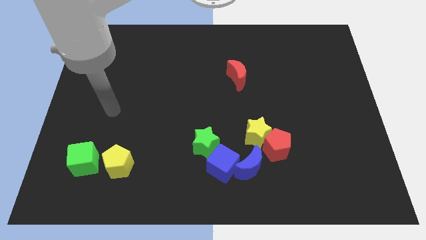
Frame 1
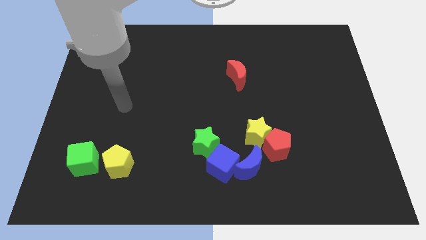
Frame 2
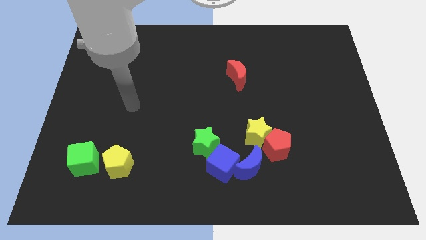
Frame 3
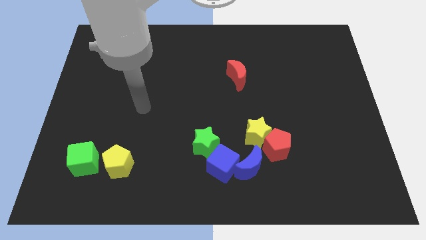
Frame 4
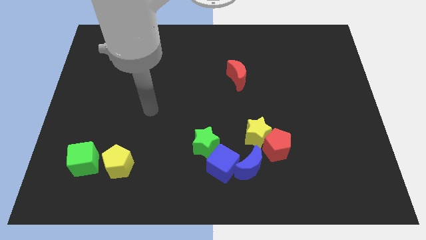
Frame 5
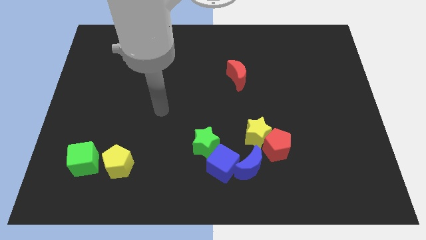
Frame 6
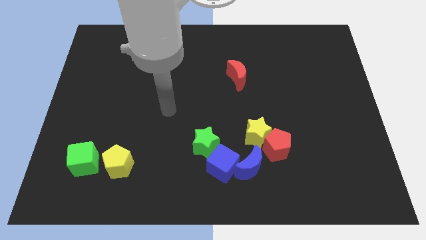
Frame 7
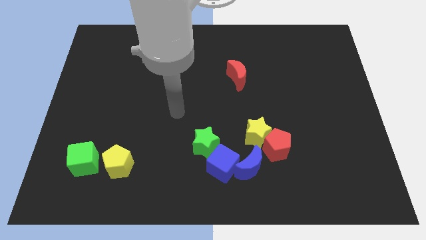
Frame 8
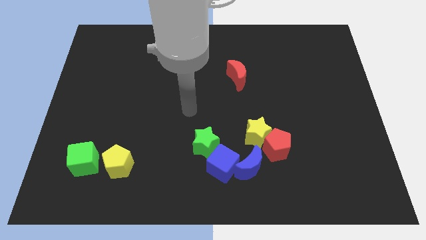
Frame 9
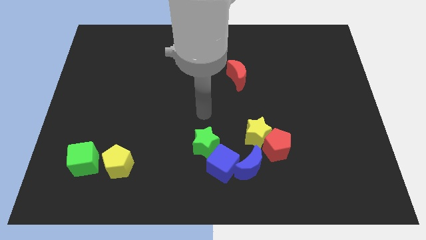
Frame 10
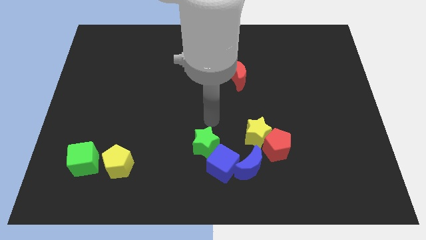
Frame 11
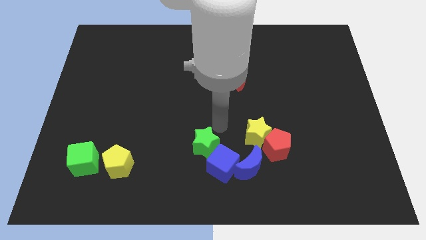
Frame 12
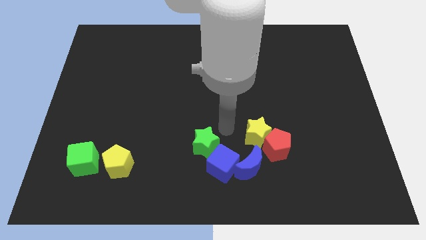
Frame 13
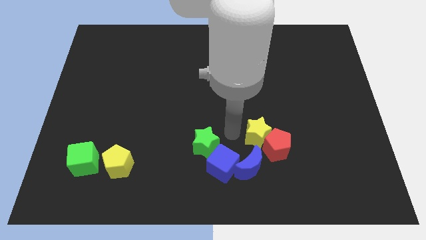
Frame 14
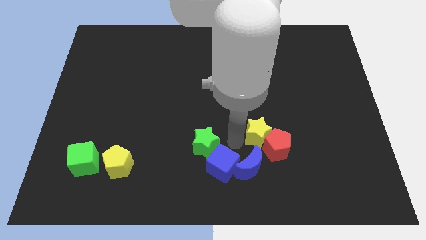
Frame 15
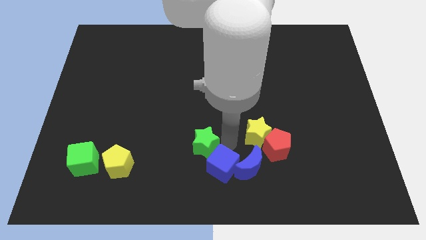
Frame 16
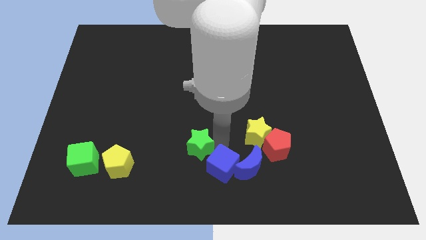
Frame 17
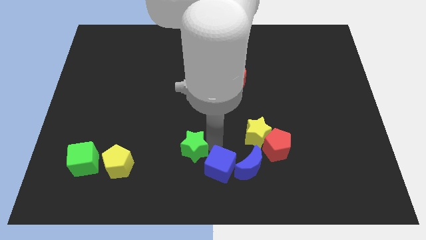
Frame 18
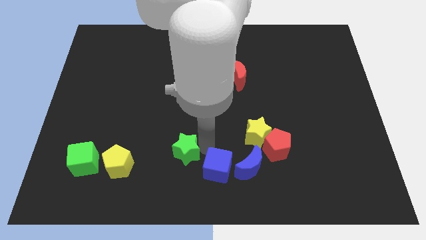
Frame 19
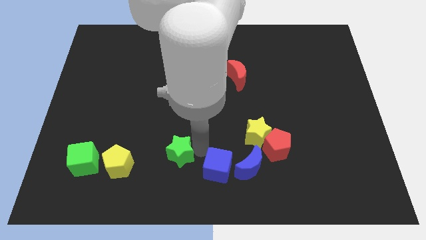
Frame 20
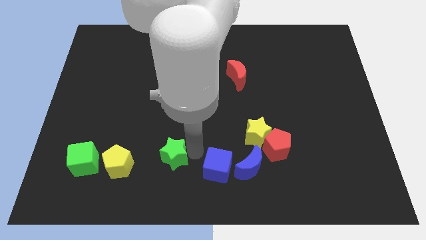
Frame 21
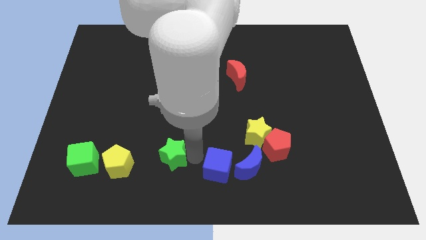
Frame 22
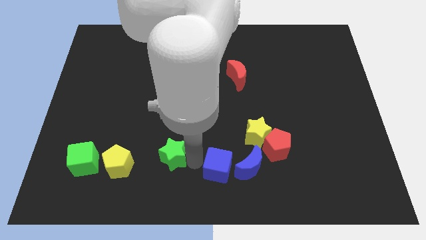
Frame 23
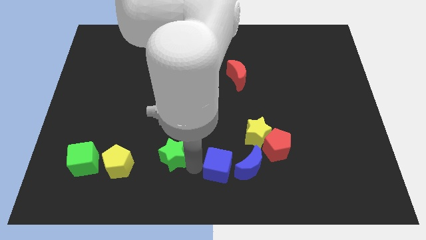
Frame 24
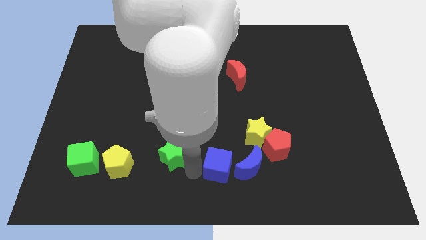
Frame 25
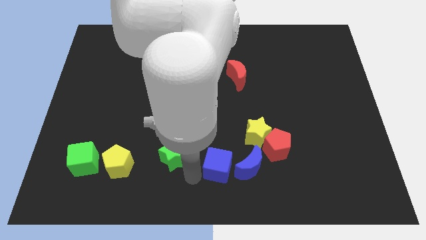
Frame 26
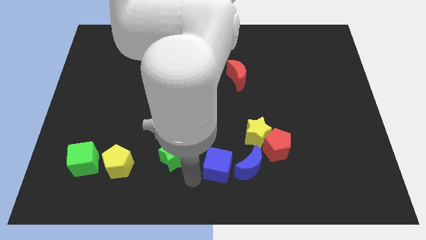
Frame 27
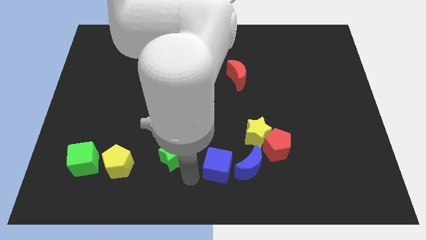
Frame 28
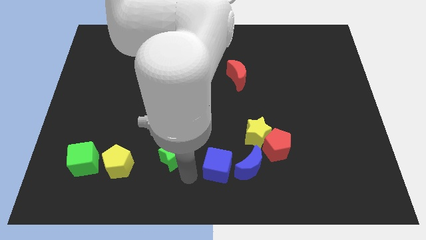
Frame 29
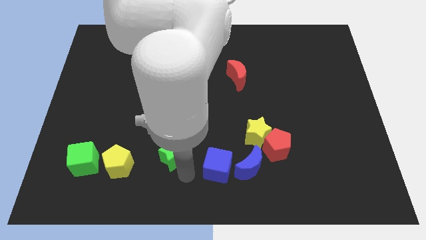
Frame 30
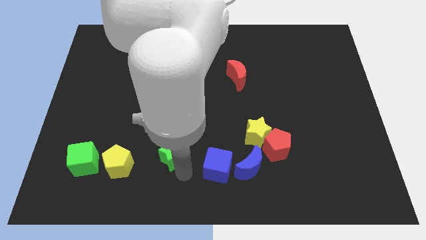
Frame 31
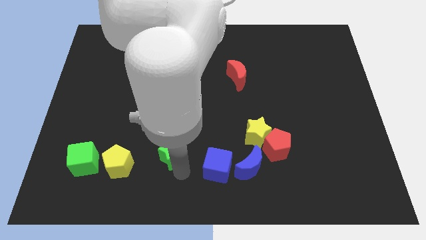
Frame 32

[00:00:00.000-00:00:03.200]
slightly push the green star to the left

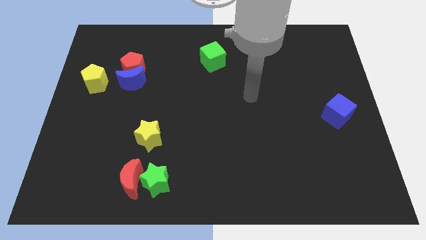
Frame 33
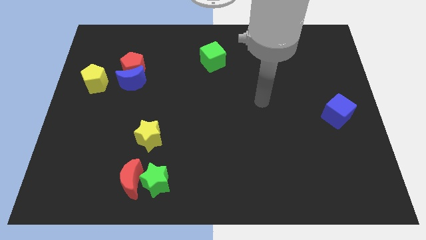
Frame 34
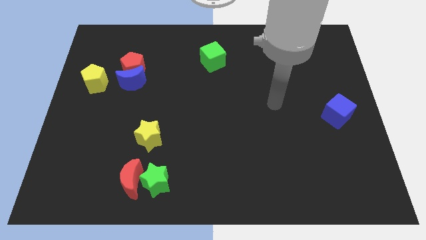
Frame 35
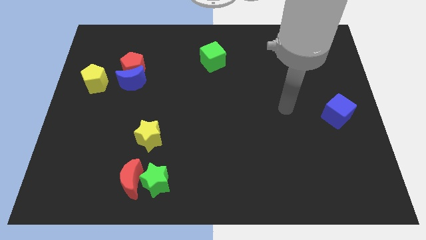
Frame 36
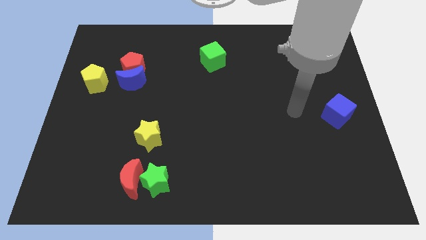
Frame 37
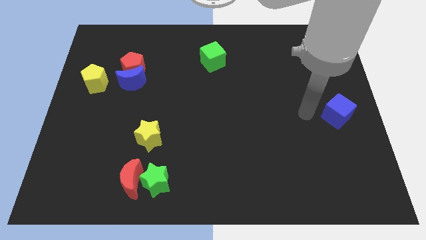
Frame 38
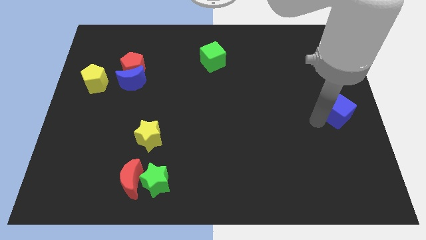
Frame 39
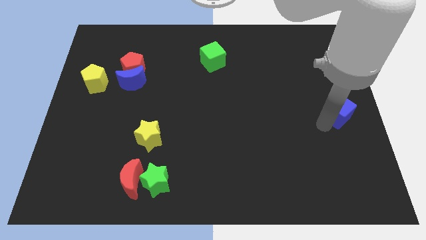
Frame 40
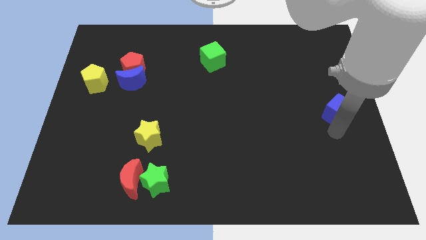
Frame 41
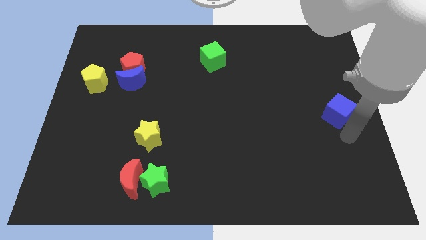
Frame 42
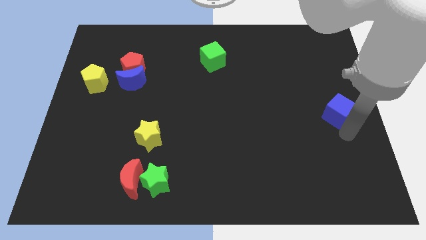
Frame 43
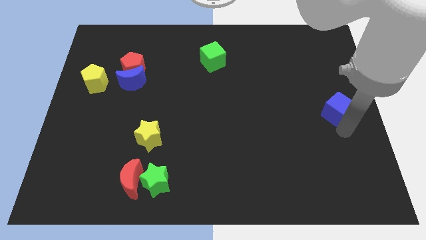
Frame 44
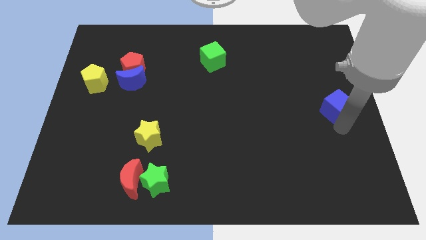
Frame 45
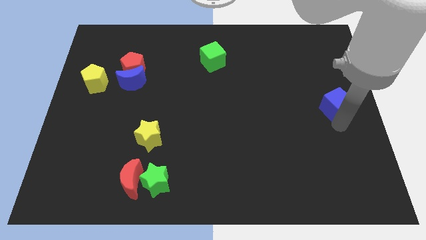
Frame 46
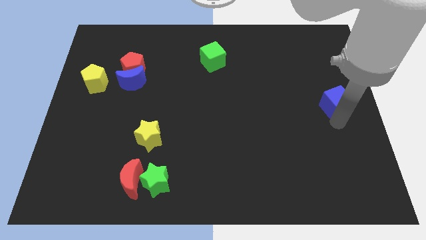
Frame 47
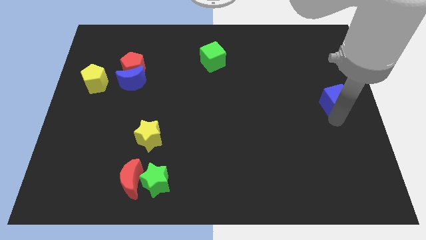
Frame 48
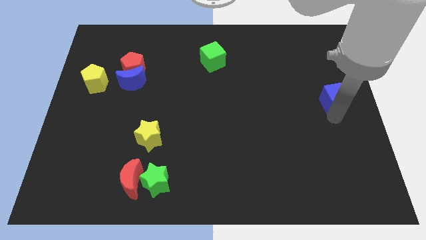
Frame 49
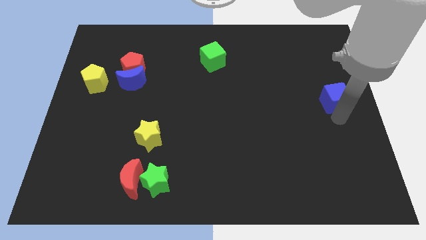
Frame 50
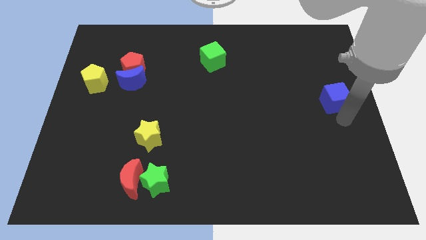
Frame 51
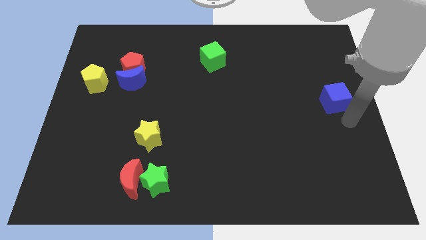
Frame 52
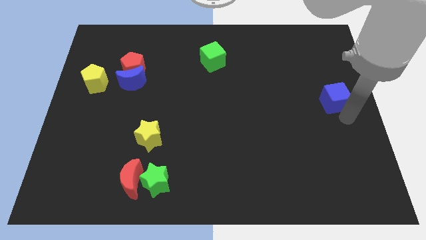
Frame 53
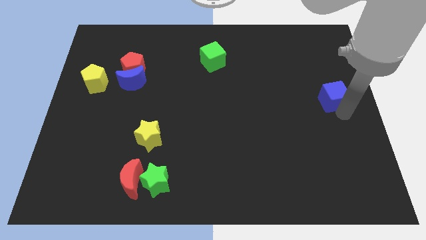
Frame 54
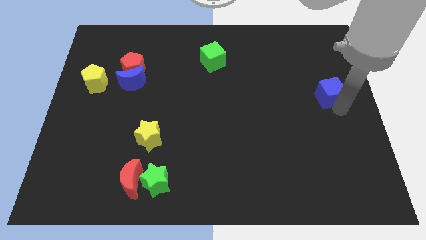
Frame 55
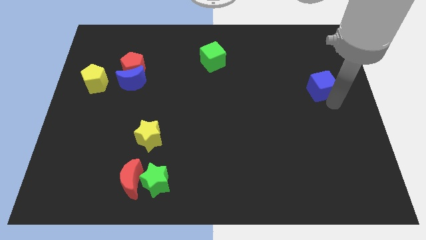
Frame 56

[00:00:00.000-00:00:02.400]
slightly slide the blue cube upwards

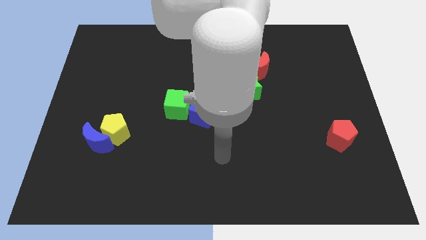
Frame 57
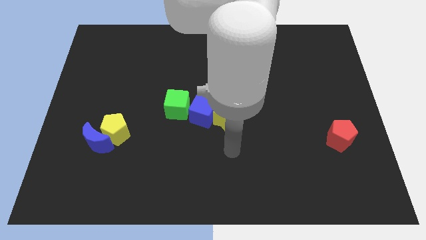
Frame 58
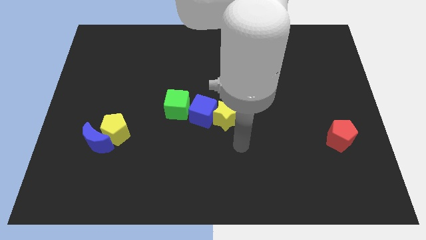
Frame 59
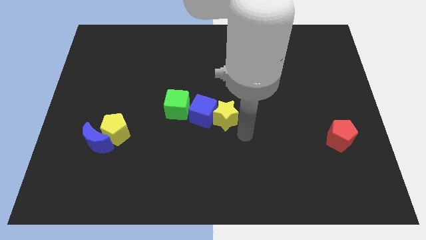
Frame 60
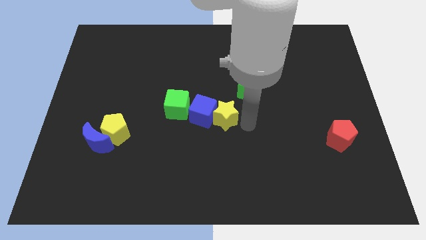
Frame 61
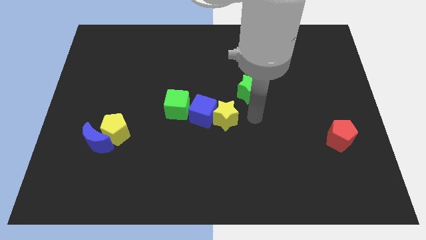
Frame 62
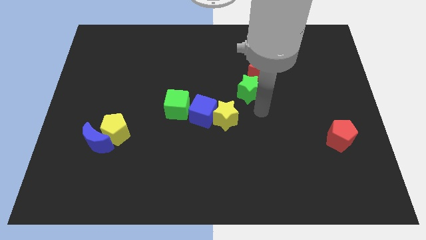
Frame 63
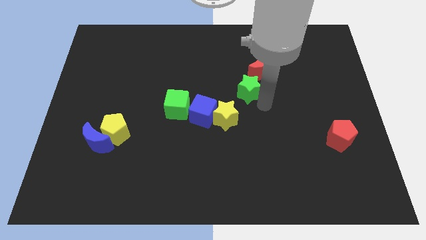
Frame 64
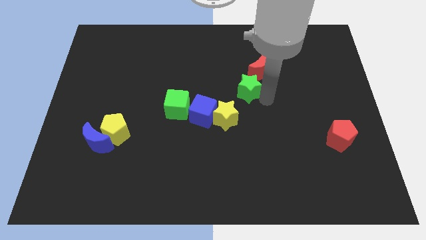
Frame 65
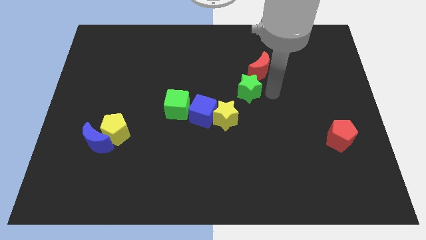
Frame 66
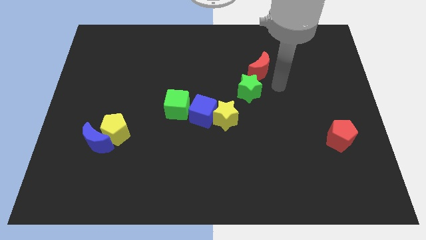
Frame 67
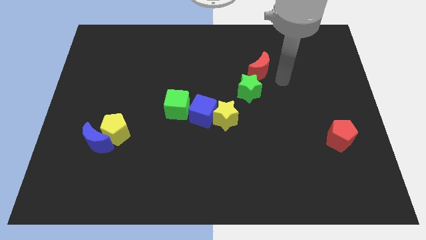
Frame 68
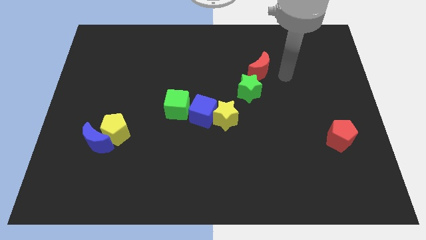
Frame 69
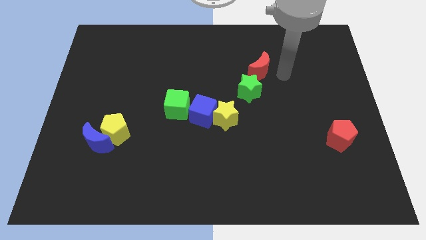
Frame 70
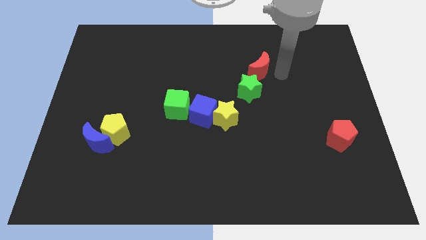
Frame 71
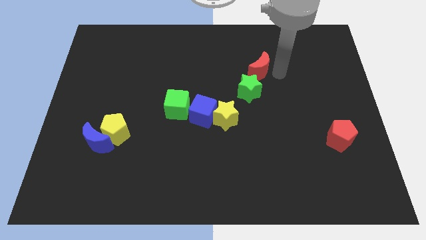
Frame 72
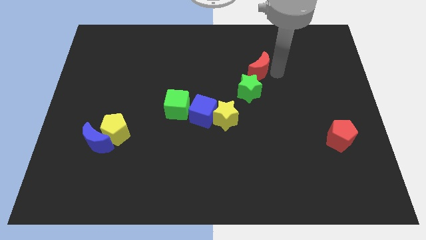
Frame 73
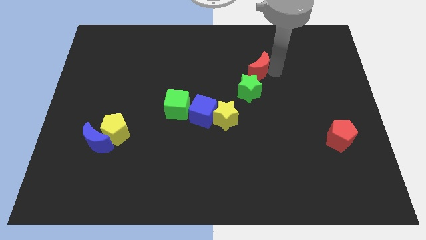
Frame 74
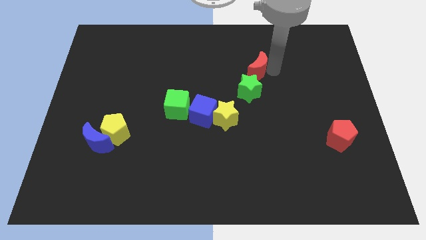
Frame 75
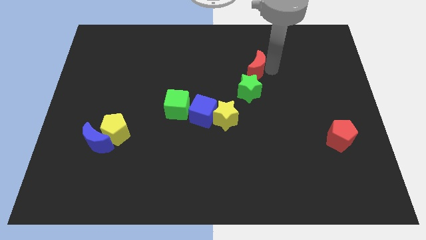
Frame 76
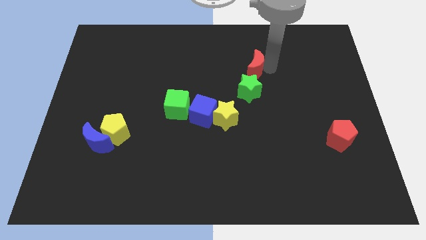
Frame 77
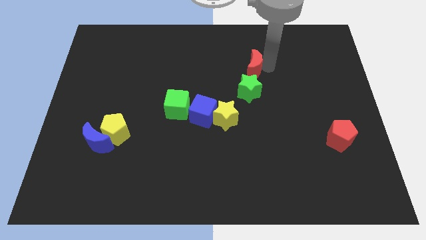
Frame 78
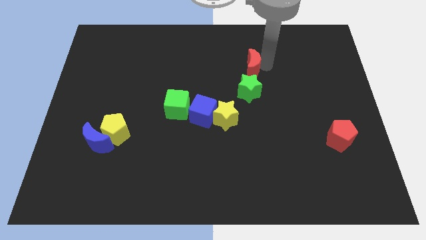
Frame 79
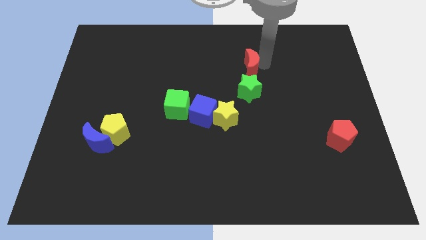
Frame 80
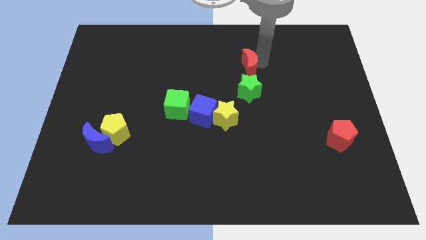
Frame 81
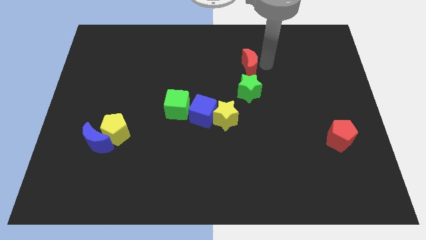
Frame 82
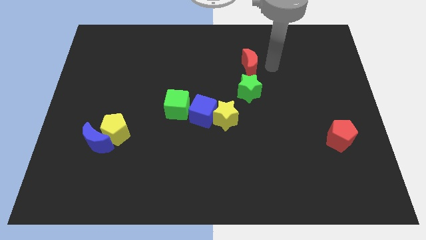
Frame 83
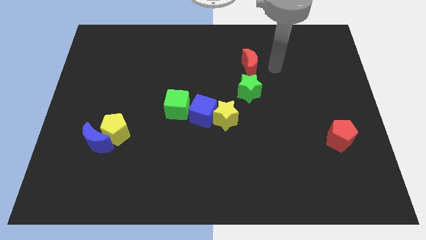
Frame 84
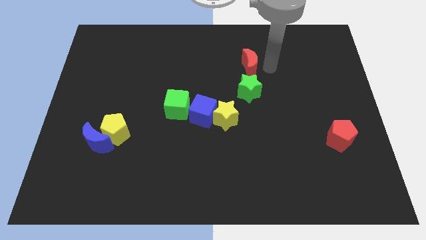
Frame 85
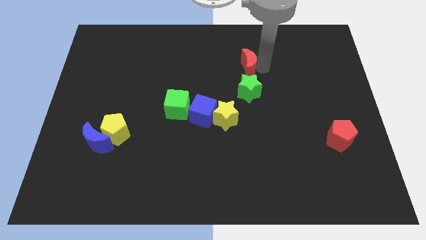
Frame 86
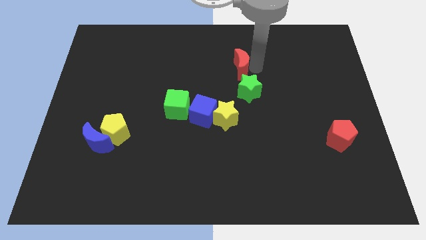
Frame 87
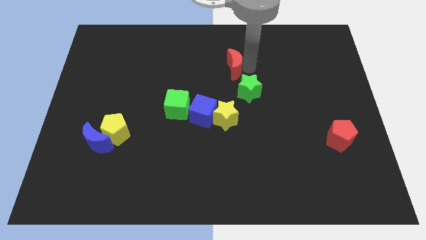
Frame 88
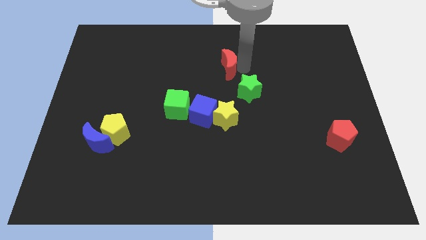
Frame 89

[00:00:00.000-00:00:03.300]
move the red moon to the left slightly
